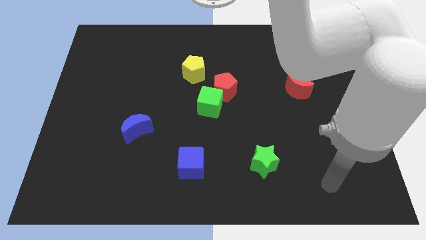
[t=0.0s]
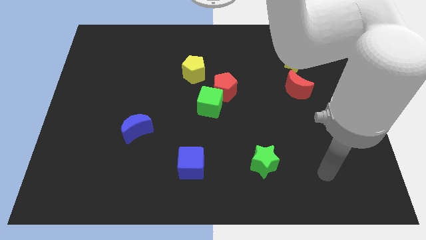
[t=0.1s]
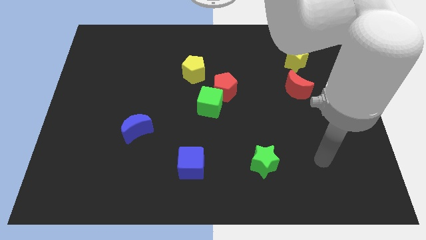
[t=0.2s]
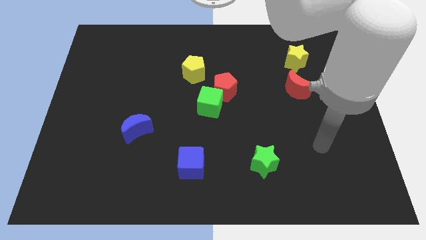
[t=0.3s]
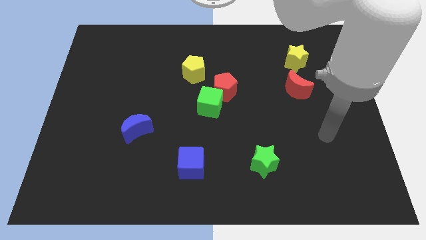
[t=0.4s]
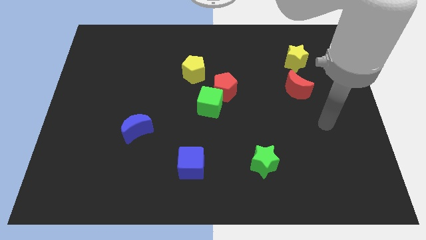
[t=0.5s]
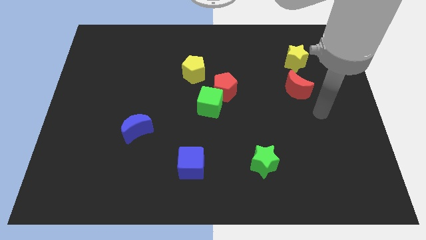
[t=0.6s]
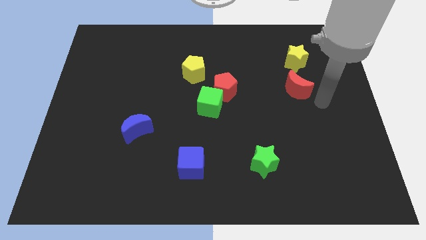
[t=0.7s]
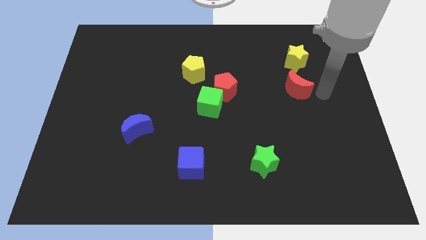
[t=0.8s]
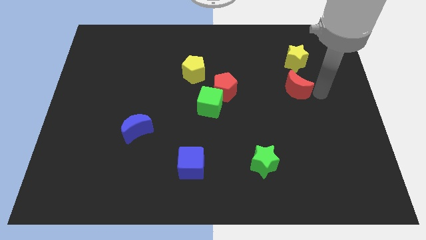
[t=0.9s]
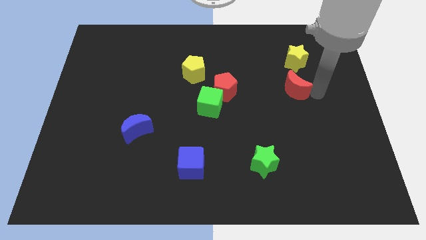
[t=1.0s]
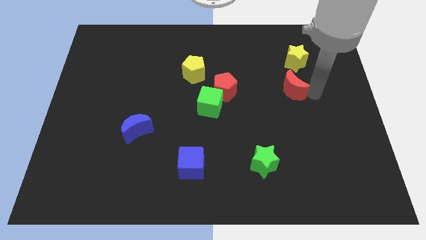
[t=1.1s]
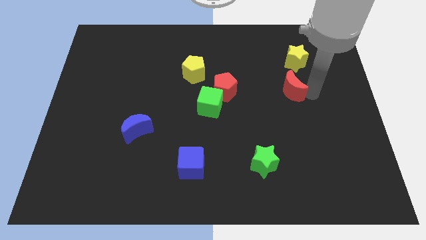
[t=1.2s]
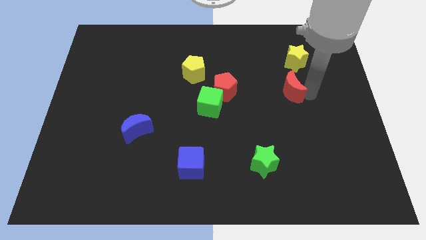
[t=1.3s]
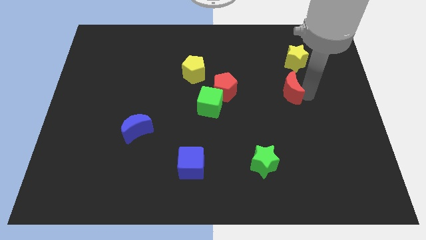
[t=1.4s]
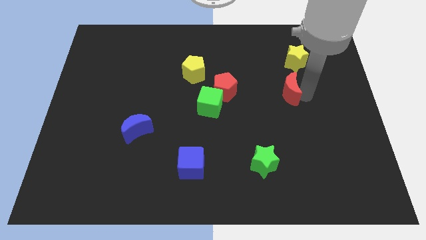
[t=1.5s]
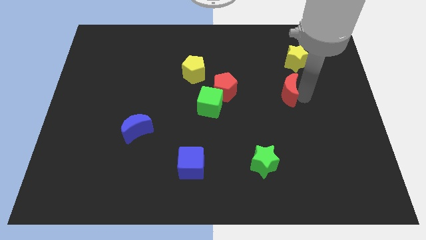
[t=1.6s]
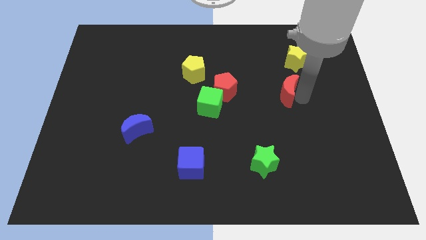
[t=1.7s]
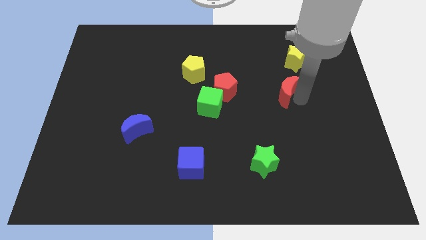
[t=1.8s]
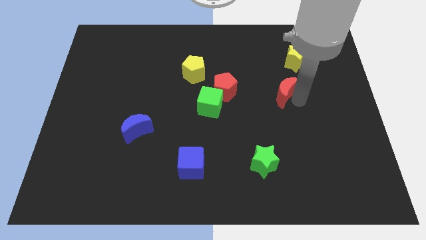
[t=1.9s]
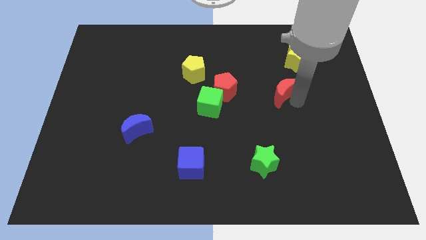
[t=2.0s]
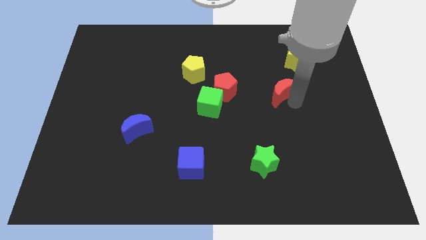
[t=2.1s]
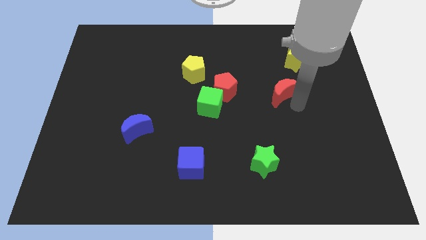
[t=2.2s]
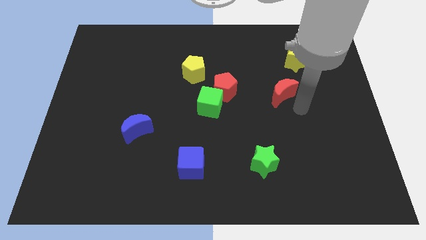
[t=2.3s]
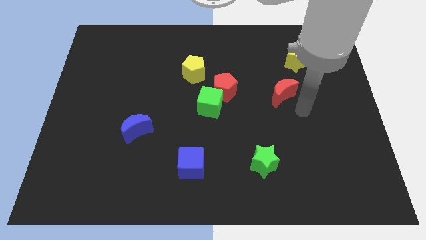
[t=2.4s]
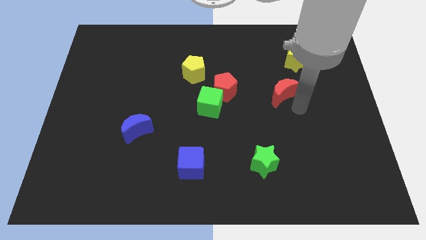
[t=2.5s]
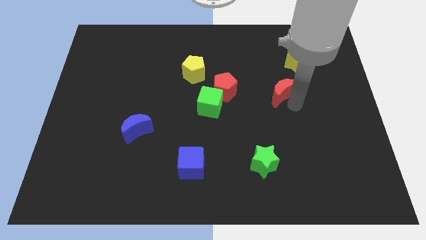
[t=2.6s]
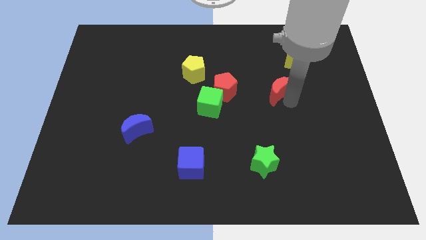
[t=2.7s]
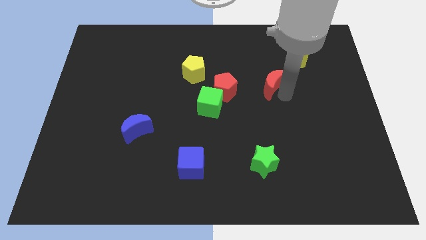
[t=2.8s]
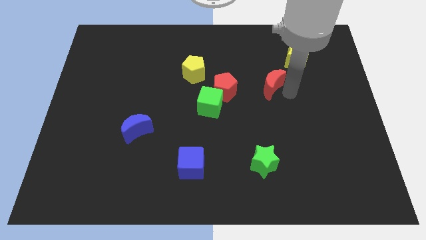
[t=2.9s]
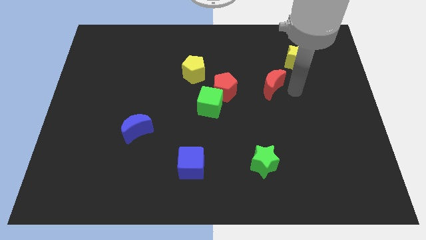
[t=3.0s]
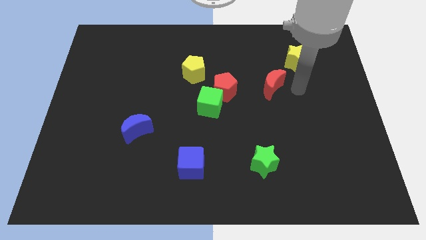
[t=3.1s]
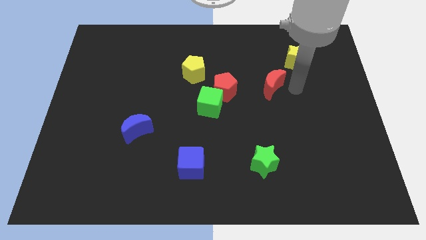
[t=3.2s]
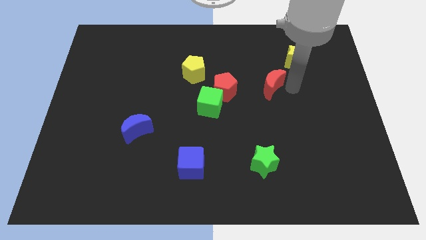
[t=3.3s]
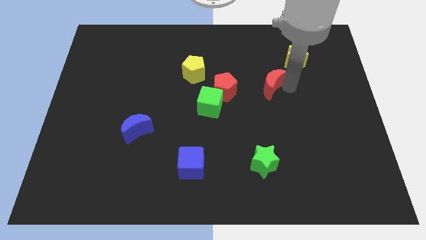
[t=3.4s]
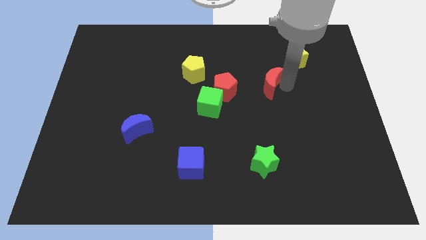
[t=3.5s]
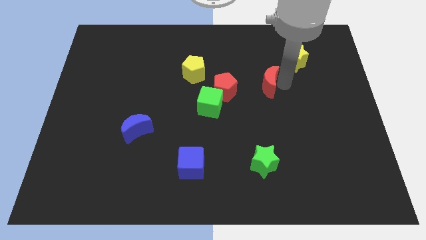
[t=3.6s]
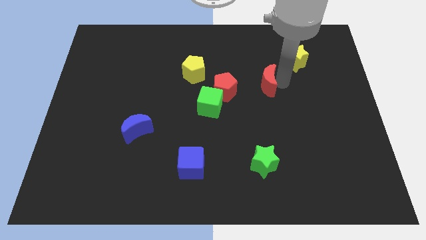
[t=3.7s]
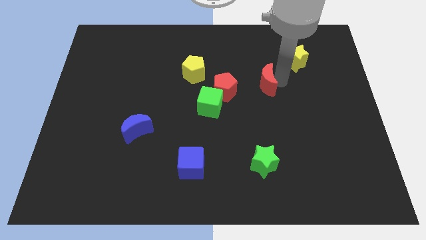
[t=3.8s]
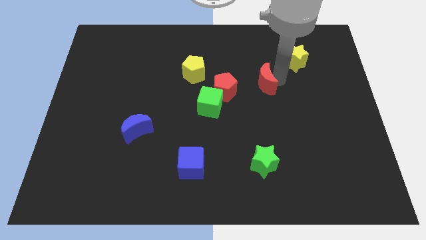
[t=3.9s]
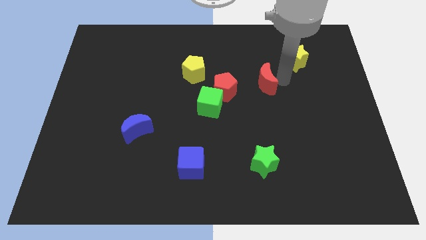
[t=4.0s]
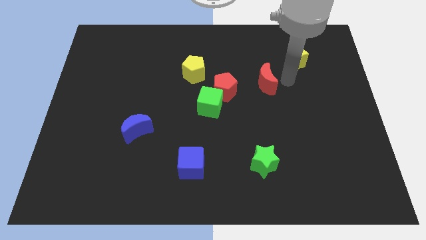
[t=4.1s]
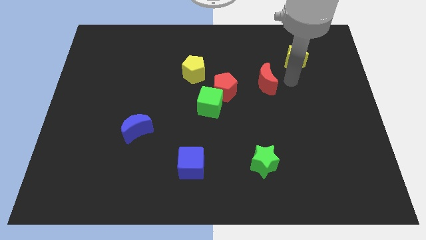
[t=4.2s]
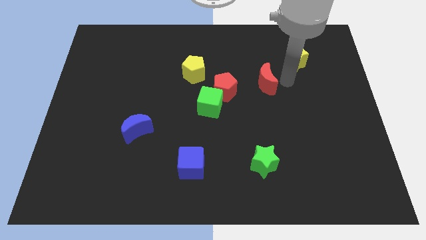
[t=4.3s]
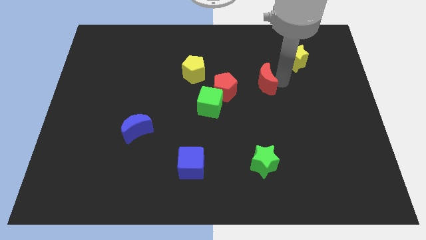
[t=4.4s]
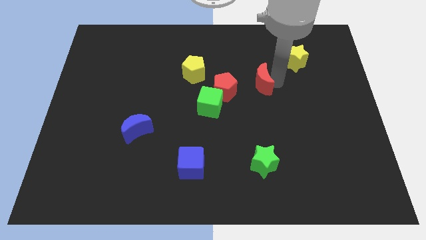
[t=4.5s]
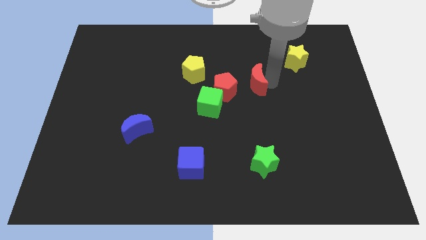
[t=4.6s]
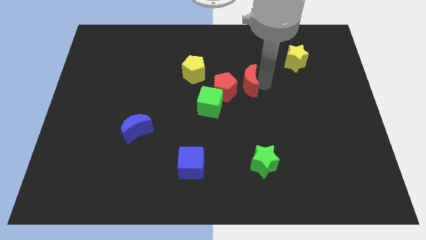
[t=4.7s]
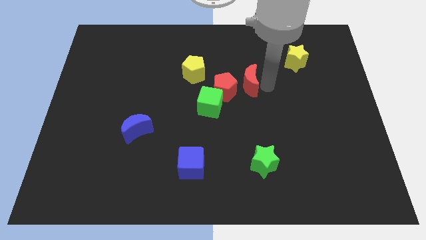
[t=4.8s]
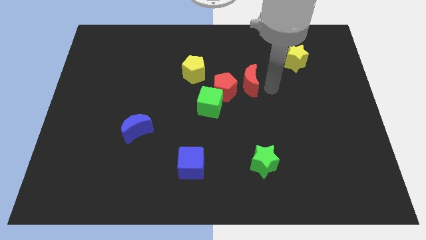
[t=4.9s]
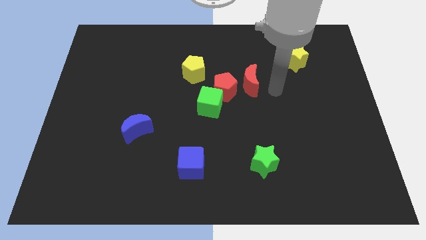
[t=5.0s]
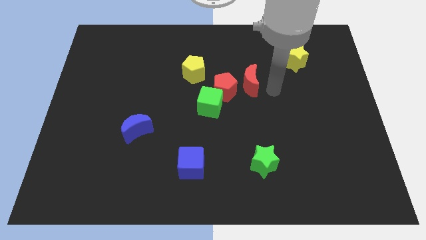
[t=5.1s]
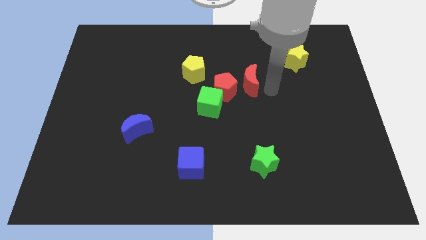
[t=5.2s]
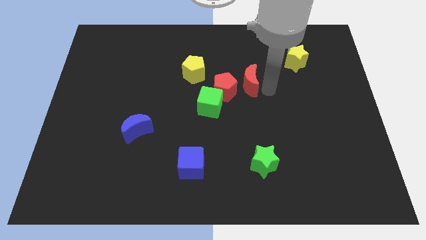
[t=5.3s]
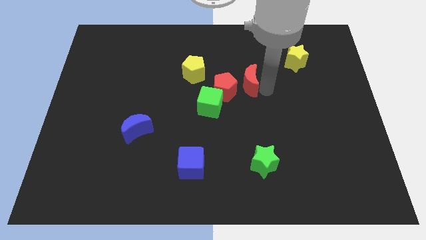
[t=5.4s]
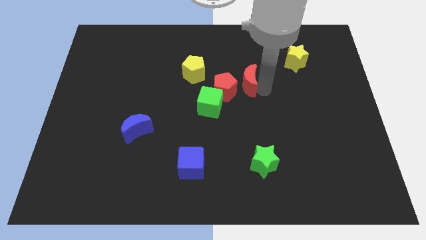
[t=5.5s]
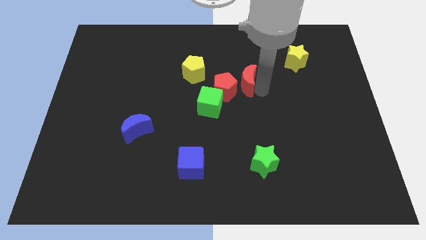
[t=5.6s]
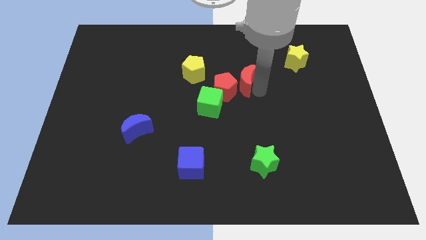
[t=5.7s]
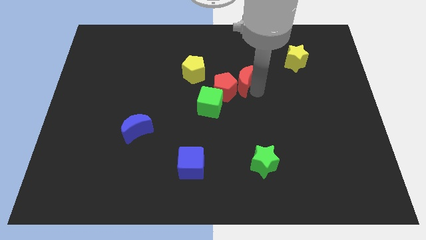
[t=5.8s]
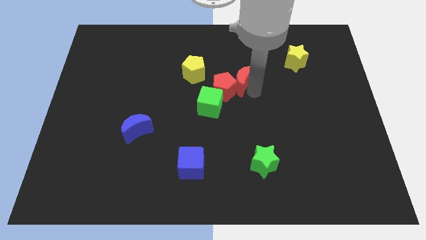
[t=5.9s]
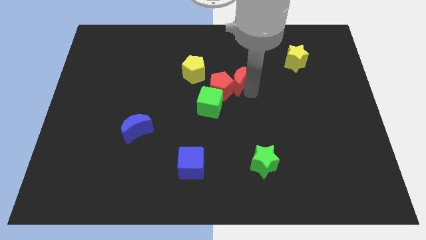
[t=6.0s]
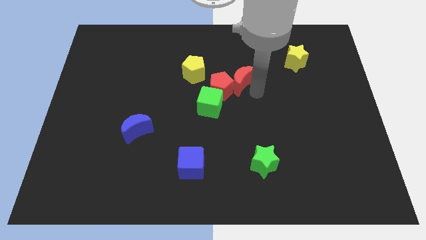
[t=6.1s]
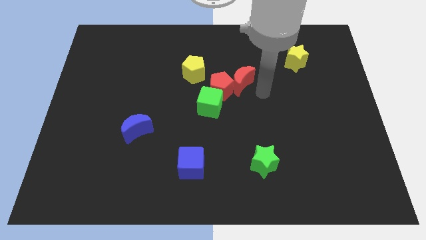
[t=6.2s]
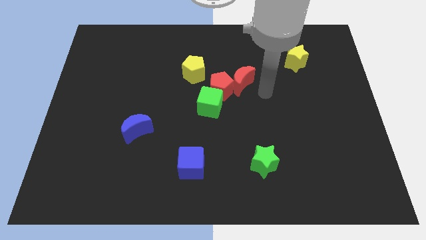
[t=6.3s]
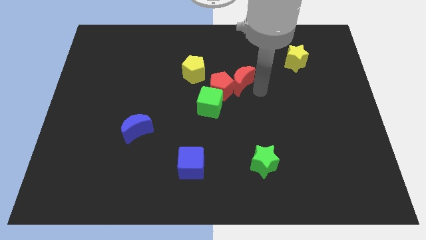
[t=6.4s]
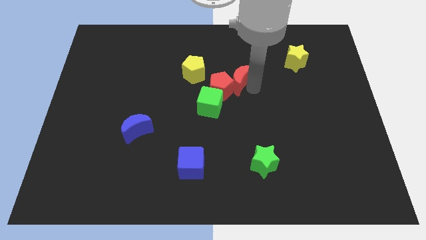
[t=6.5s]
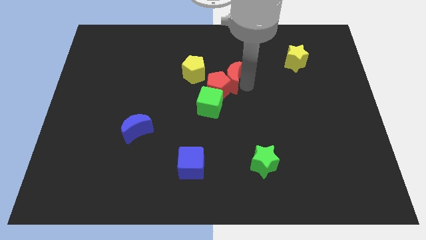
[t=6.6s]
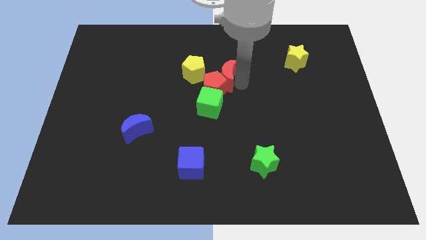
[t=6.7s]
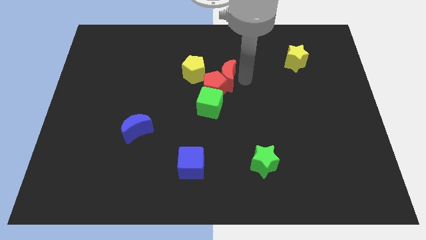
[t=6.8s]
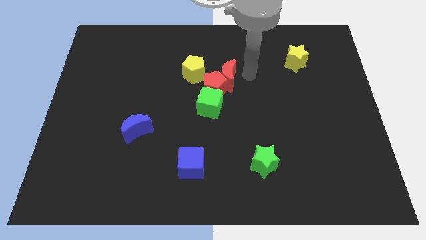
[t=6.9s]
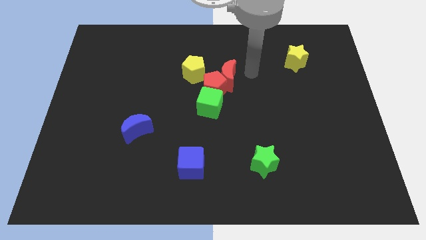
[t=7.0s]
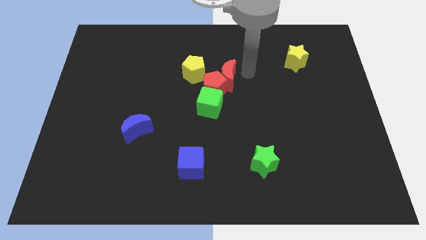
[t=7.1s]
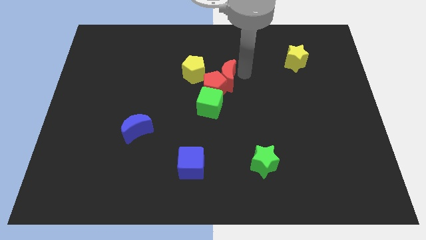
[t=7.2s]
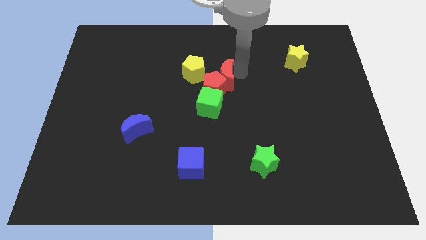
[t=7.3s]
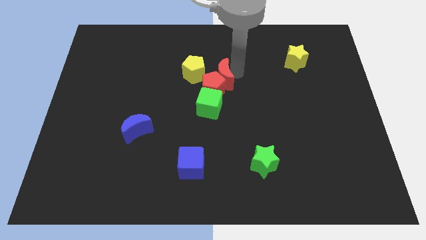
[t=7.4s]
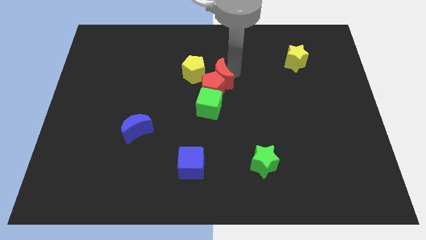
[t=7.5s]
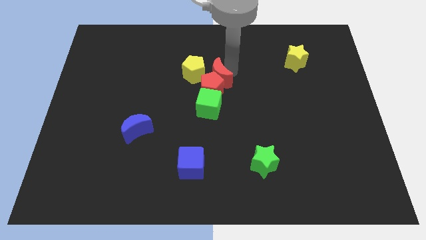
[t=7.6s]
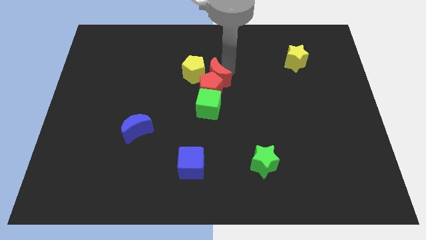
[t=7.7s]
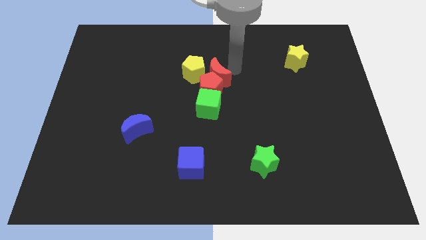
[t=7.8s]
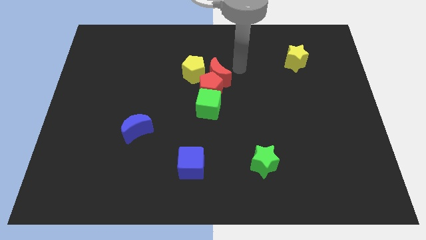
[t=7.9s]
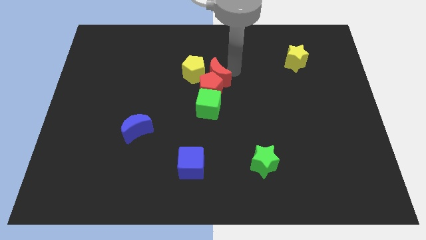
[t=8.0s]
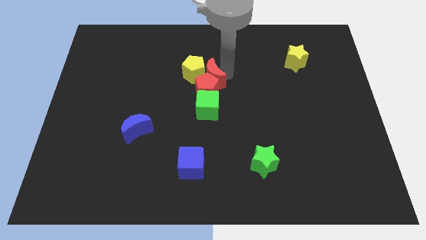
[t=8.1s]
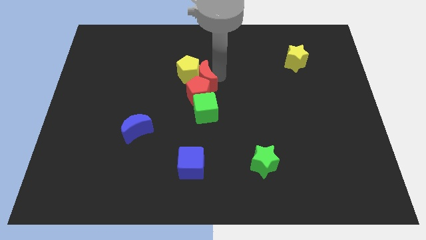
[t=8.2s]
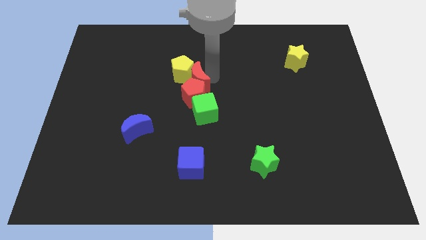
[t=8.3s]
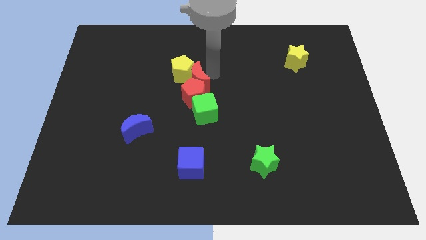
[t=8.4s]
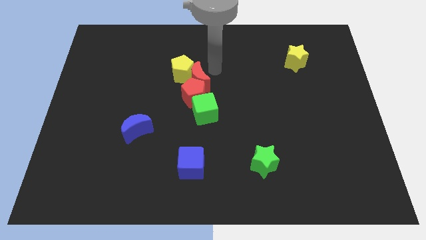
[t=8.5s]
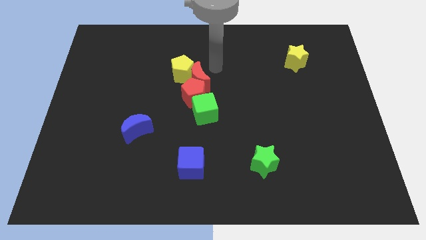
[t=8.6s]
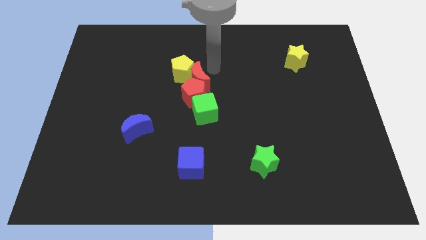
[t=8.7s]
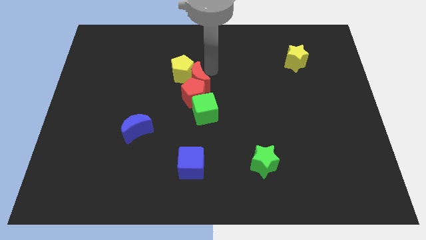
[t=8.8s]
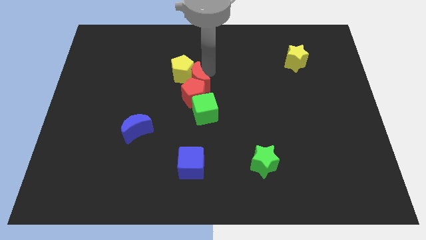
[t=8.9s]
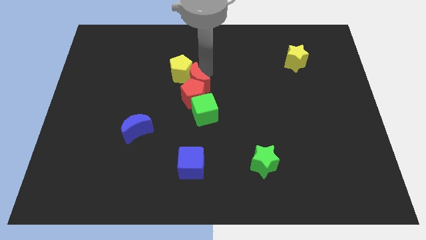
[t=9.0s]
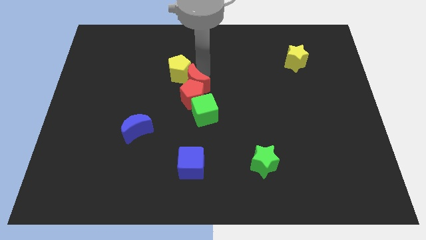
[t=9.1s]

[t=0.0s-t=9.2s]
put the red moon to the top left of the green cube
